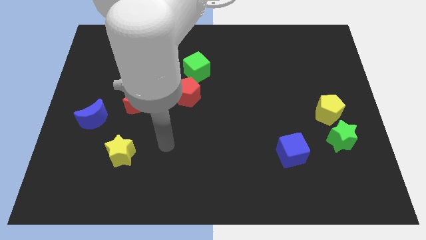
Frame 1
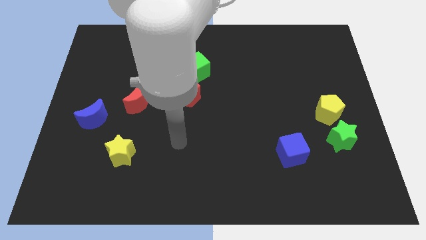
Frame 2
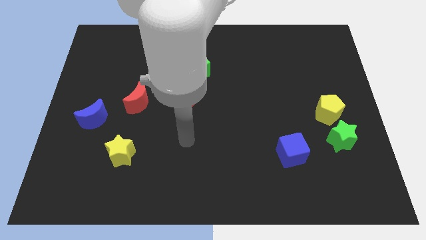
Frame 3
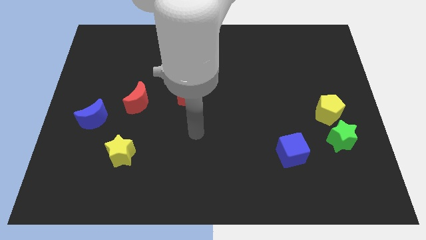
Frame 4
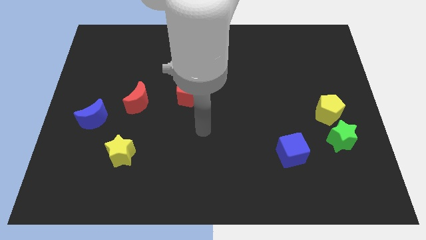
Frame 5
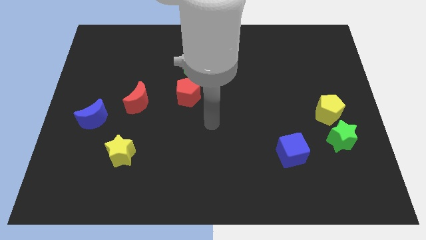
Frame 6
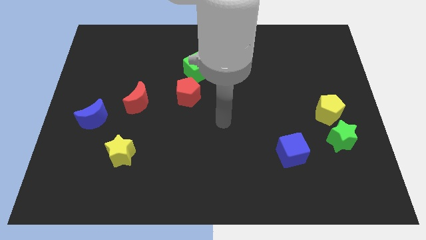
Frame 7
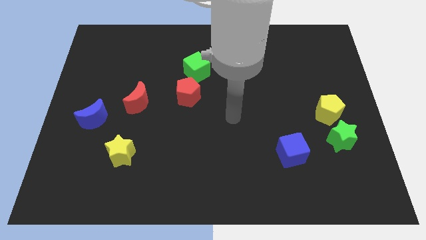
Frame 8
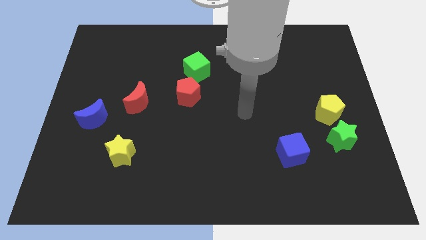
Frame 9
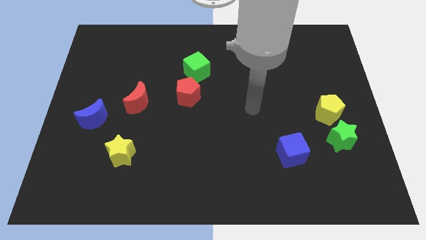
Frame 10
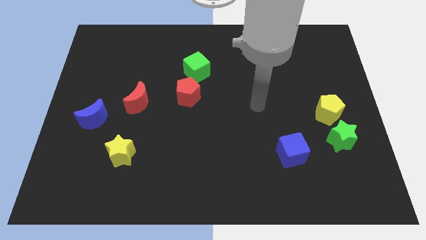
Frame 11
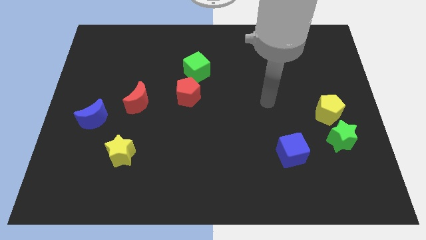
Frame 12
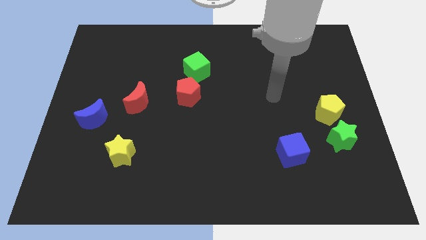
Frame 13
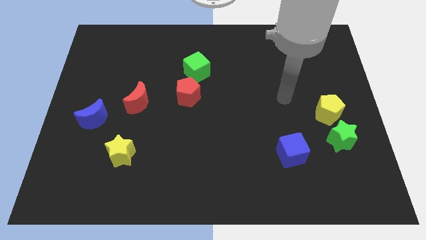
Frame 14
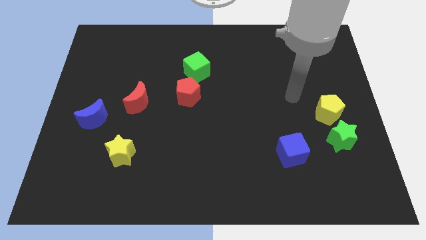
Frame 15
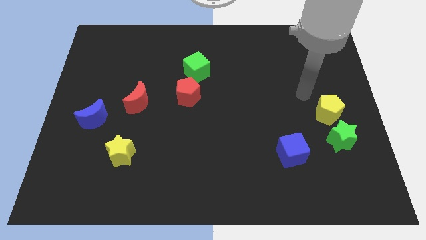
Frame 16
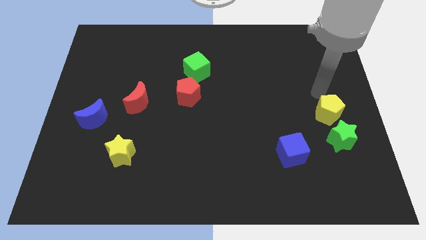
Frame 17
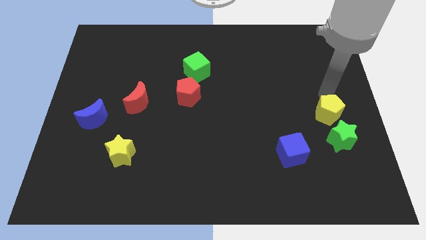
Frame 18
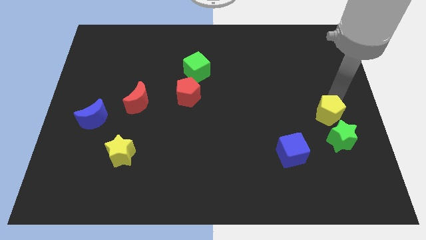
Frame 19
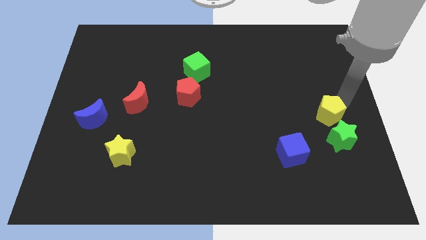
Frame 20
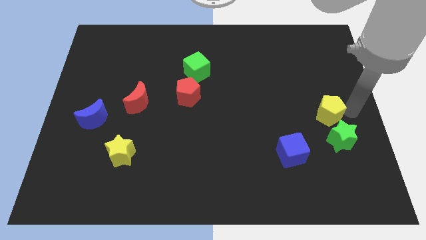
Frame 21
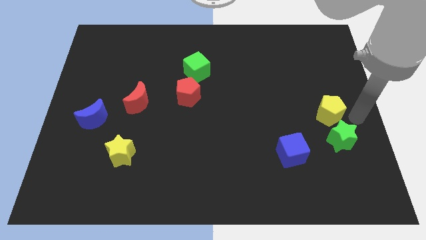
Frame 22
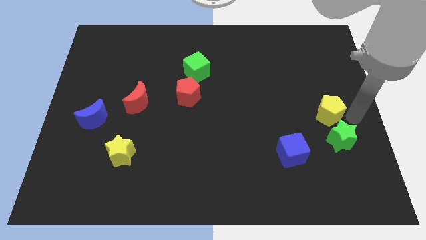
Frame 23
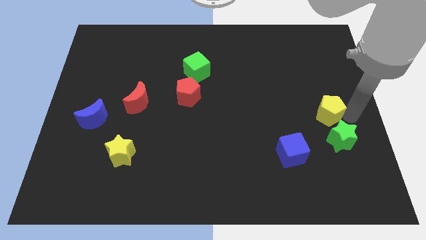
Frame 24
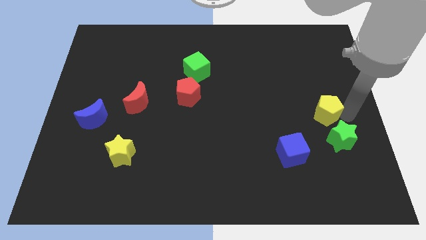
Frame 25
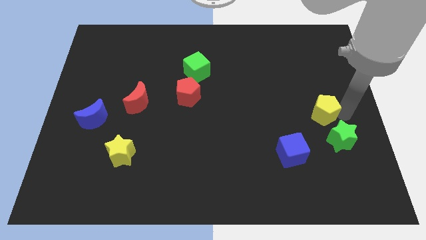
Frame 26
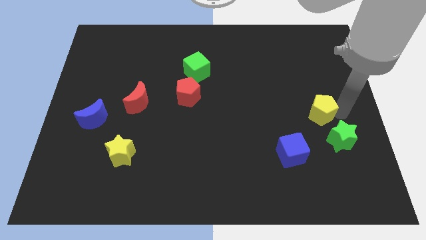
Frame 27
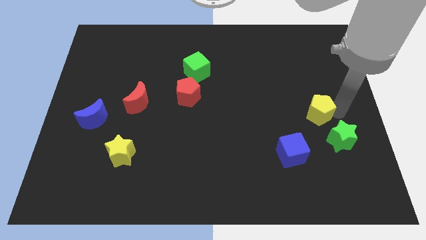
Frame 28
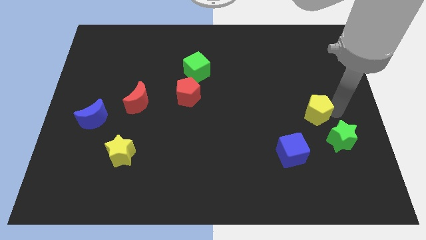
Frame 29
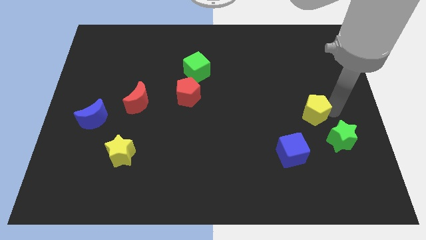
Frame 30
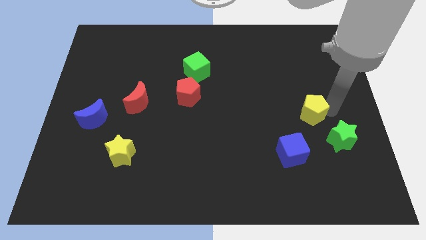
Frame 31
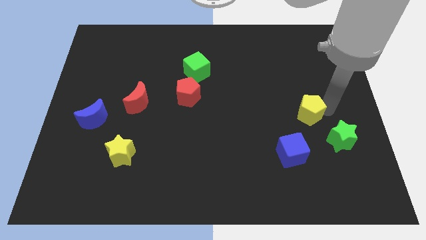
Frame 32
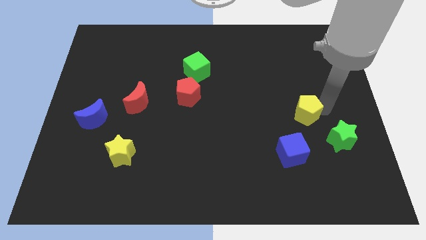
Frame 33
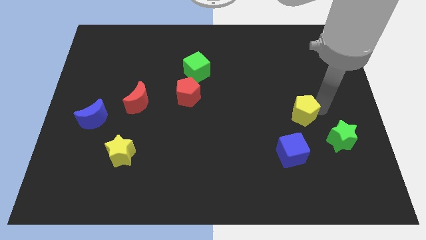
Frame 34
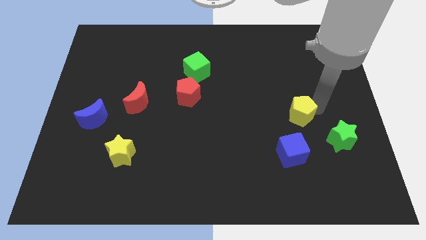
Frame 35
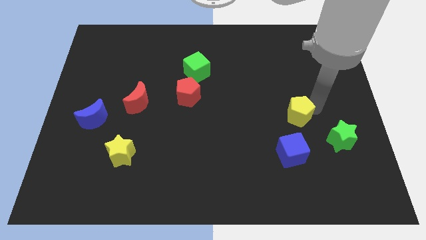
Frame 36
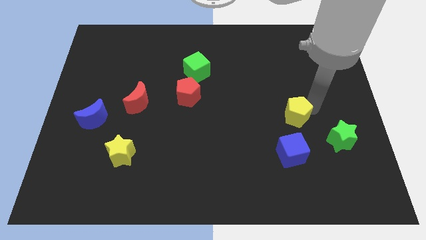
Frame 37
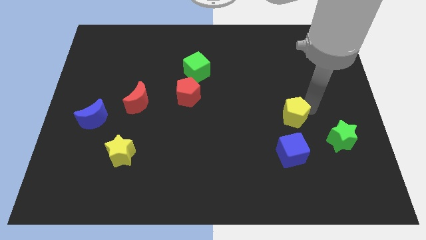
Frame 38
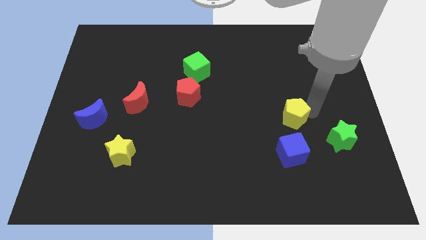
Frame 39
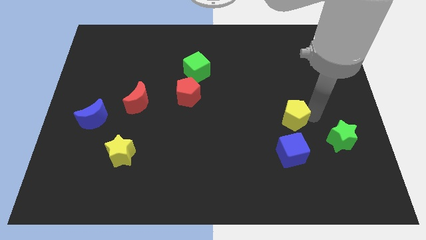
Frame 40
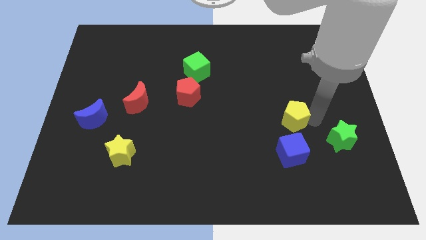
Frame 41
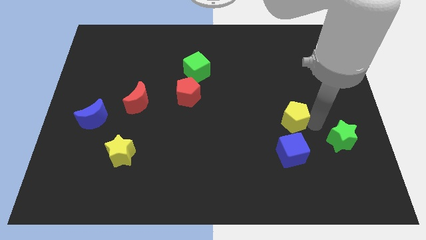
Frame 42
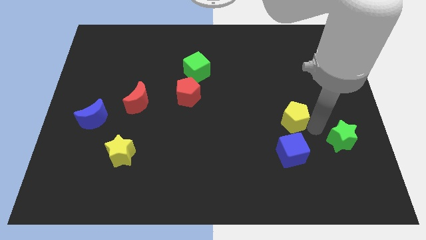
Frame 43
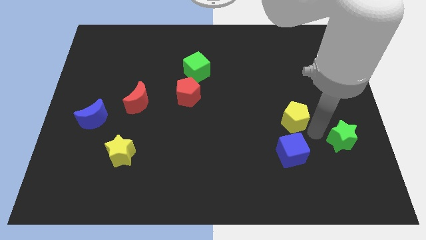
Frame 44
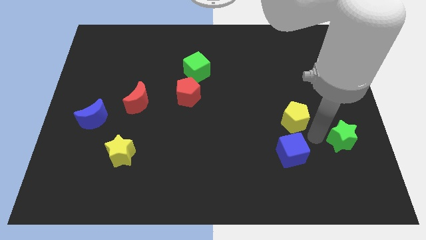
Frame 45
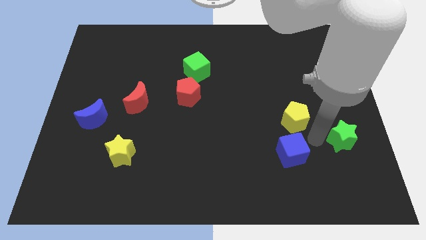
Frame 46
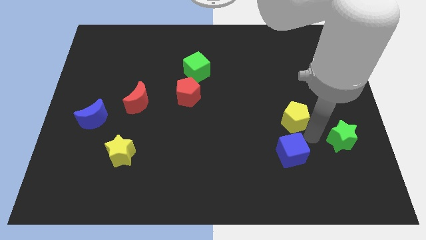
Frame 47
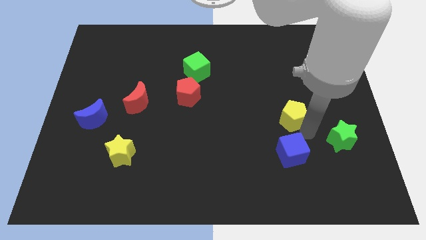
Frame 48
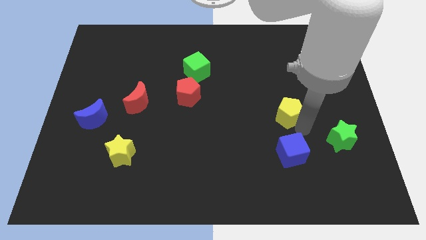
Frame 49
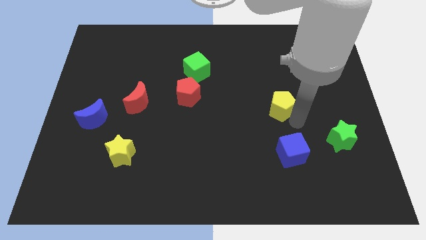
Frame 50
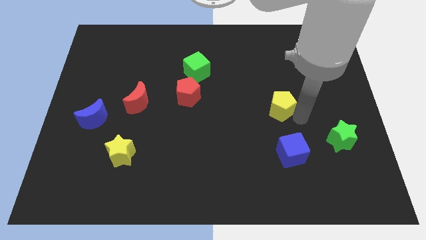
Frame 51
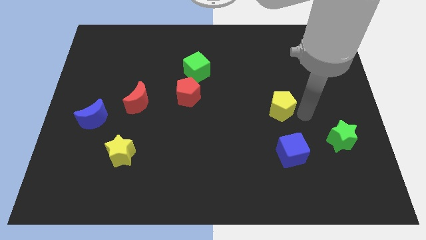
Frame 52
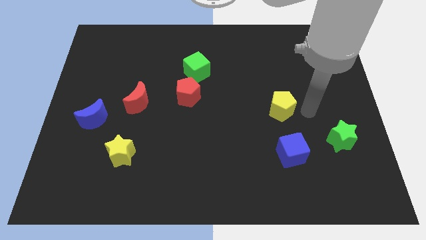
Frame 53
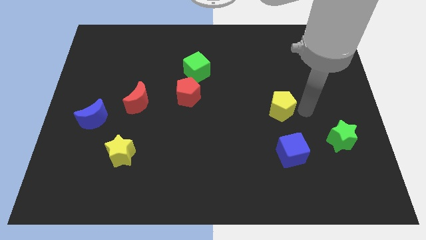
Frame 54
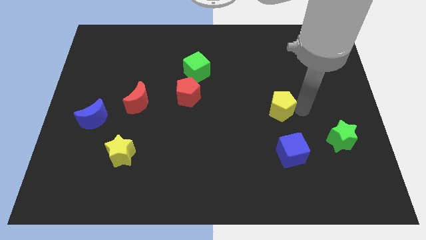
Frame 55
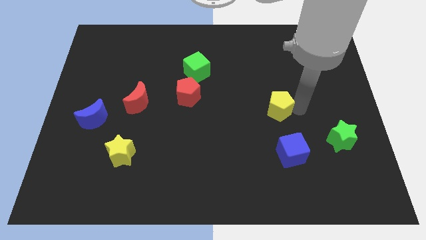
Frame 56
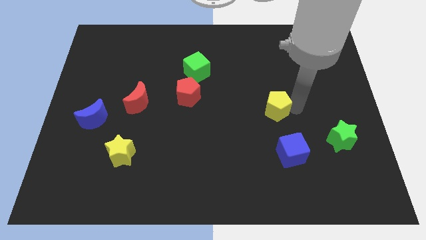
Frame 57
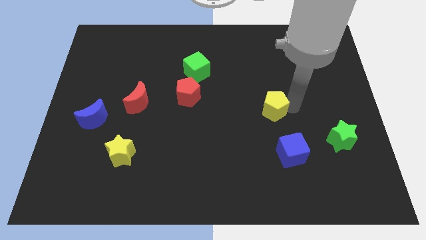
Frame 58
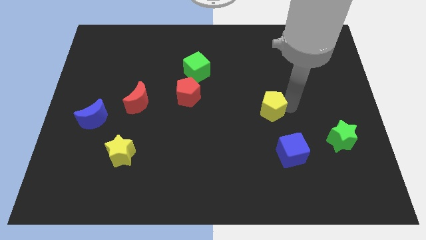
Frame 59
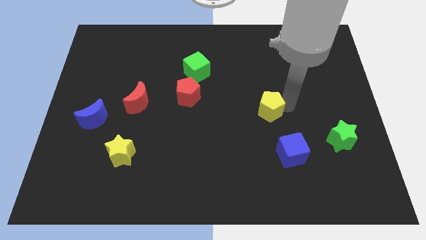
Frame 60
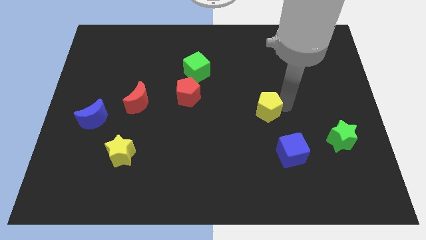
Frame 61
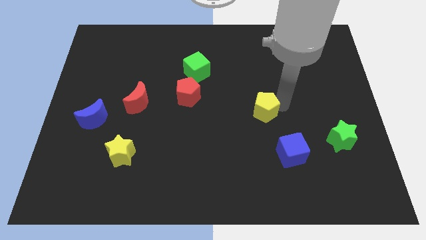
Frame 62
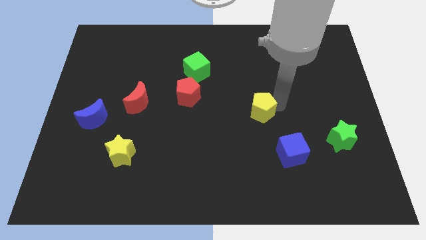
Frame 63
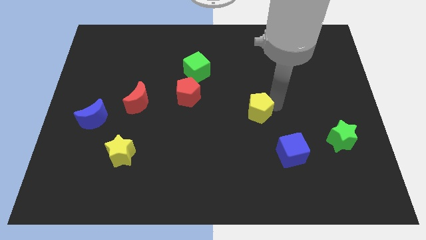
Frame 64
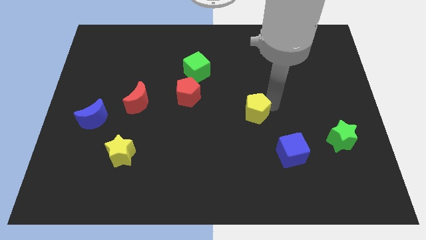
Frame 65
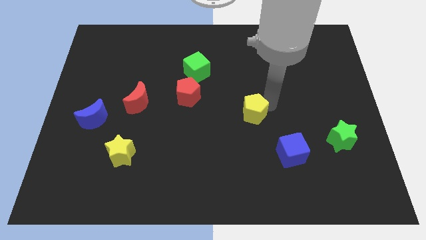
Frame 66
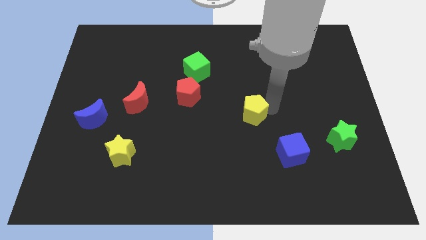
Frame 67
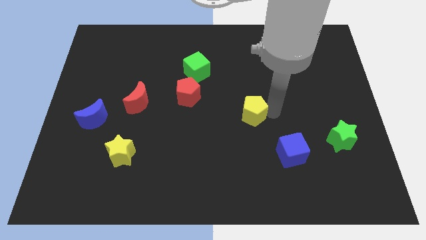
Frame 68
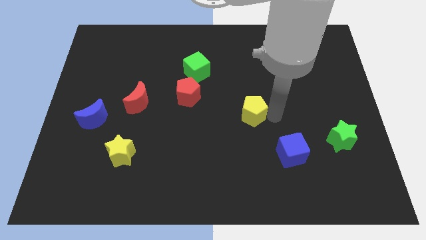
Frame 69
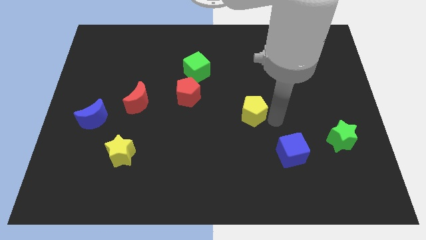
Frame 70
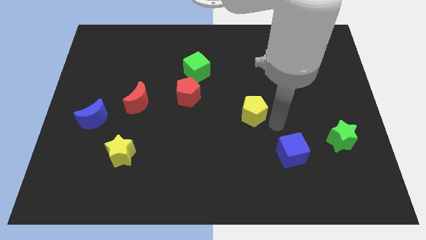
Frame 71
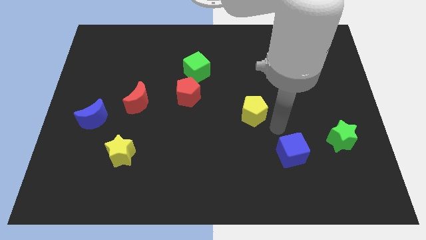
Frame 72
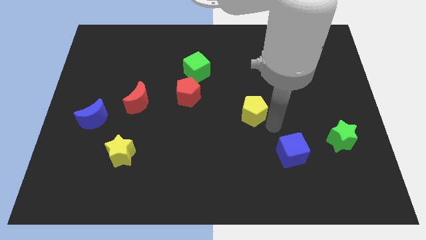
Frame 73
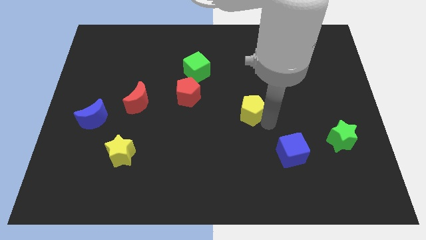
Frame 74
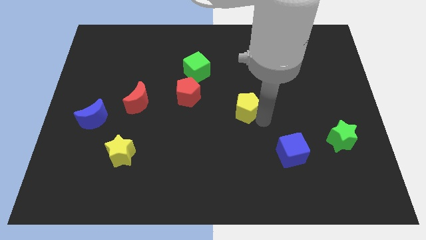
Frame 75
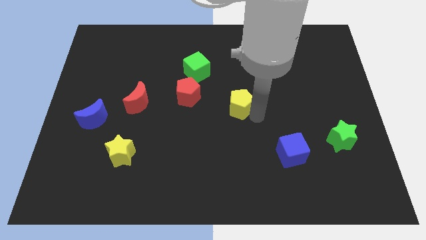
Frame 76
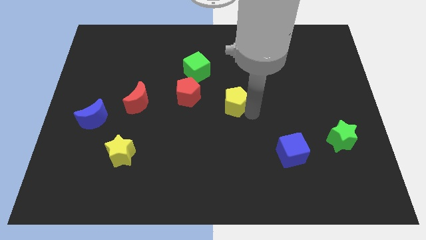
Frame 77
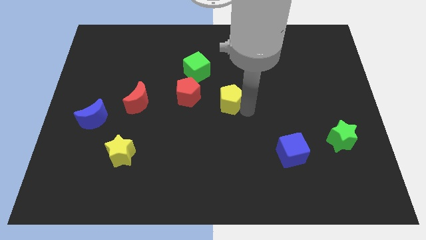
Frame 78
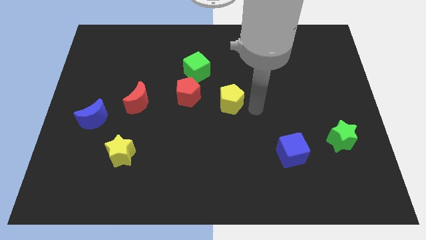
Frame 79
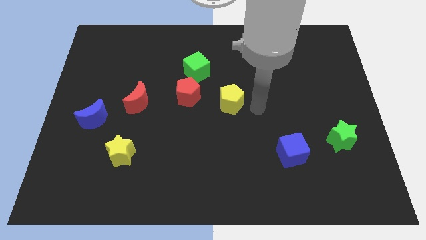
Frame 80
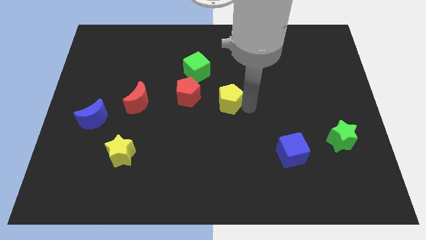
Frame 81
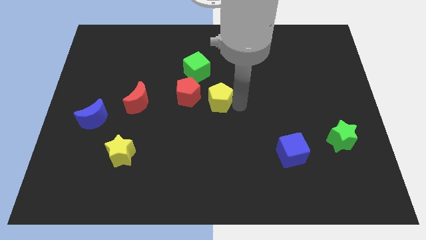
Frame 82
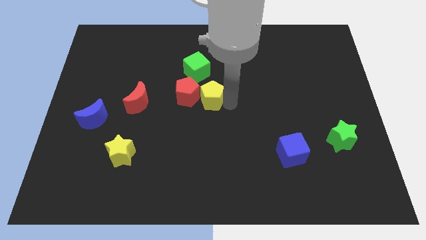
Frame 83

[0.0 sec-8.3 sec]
put the yellow pentagon next to the red pentagon
